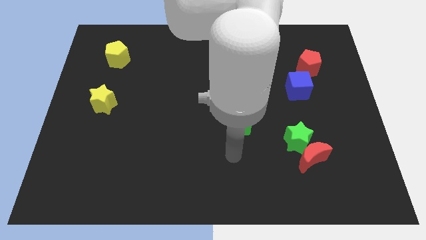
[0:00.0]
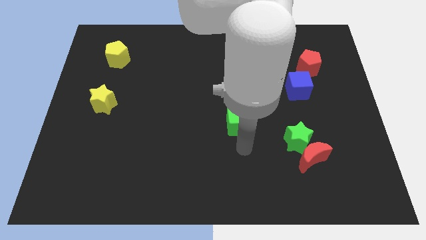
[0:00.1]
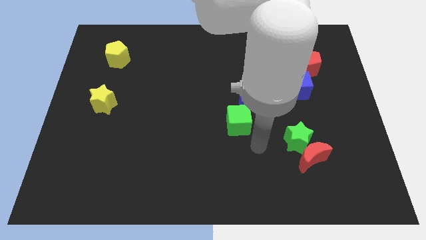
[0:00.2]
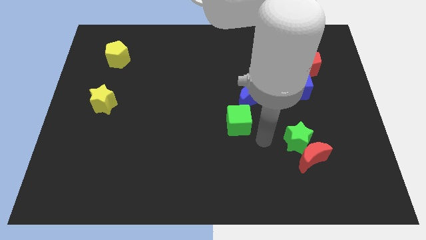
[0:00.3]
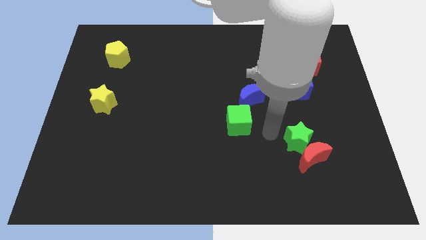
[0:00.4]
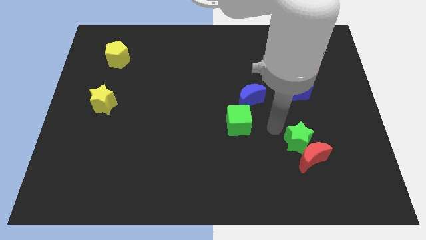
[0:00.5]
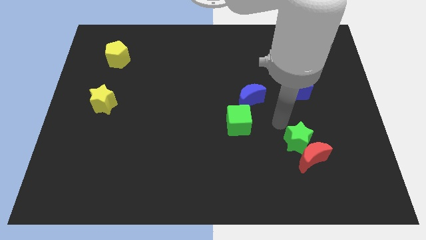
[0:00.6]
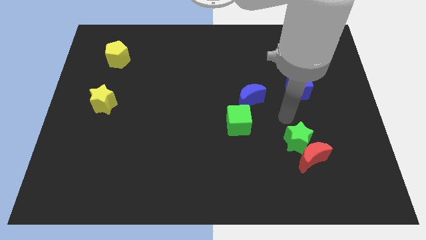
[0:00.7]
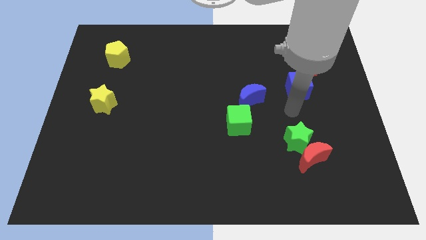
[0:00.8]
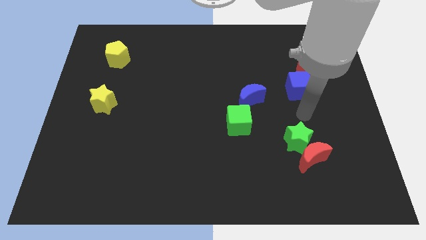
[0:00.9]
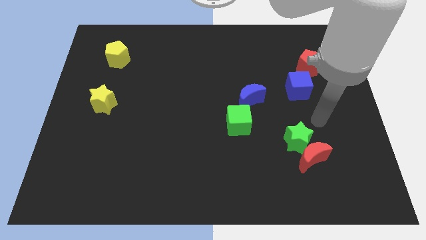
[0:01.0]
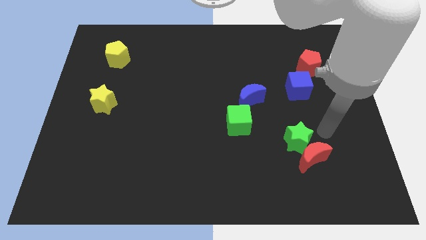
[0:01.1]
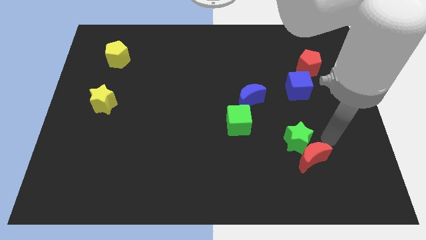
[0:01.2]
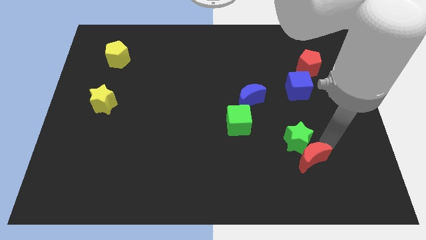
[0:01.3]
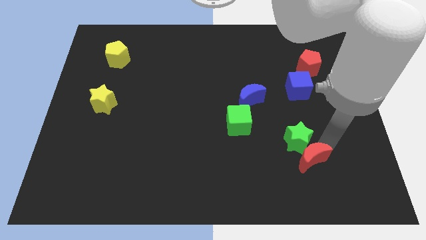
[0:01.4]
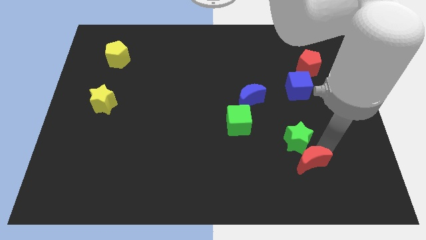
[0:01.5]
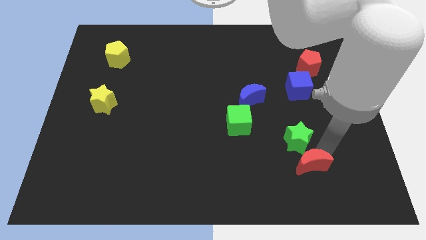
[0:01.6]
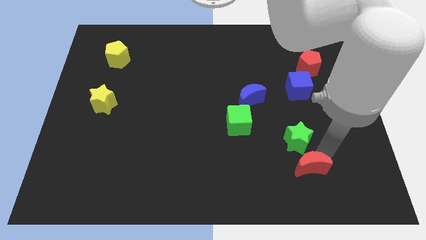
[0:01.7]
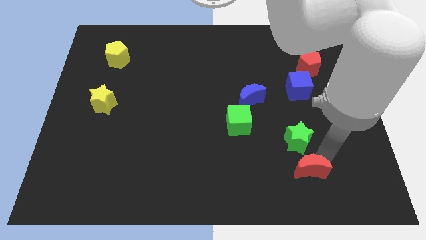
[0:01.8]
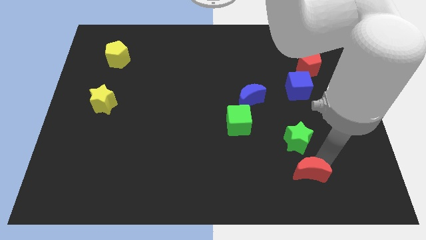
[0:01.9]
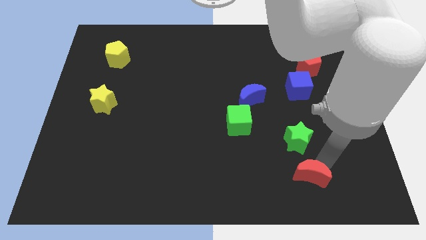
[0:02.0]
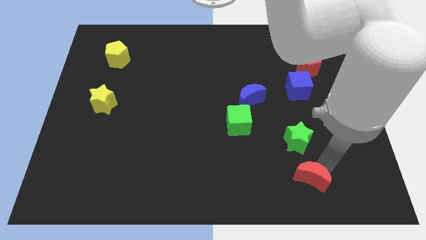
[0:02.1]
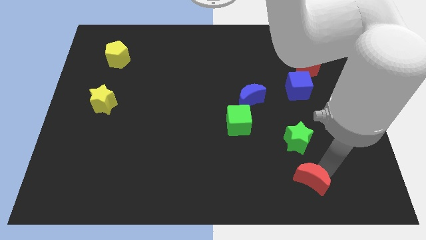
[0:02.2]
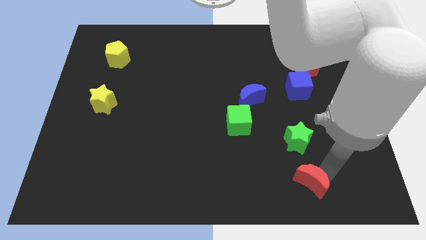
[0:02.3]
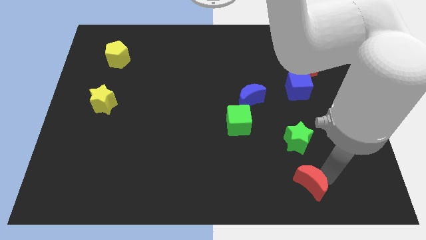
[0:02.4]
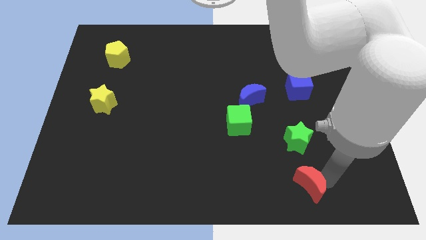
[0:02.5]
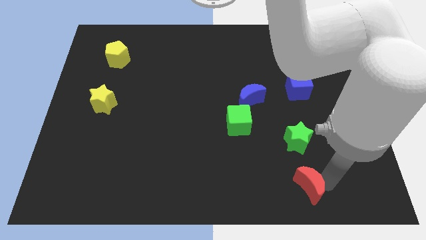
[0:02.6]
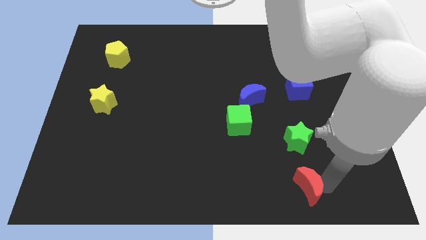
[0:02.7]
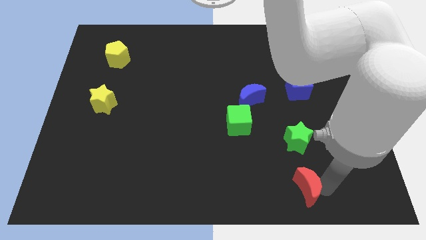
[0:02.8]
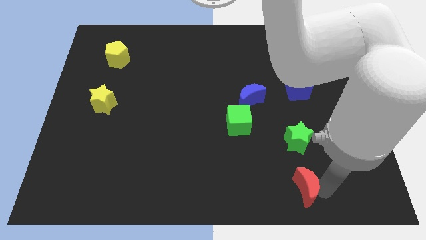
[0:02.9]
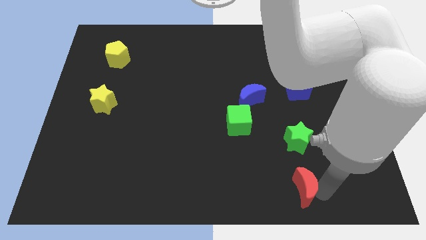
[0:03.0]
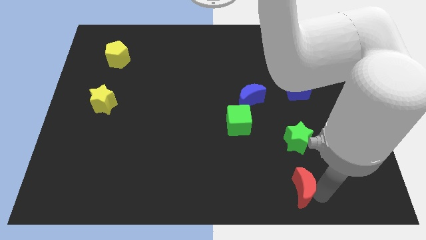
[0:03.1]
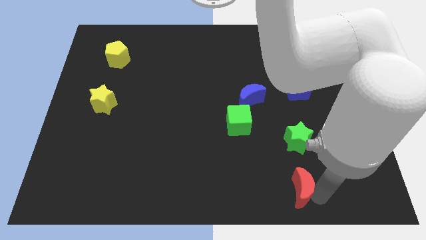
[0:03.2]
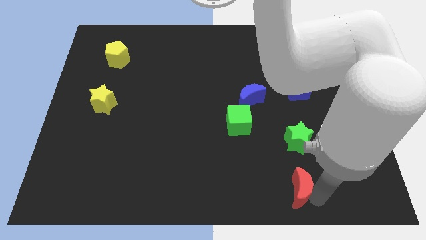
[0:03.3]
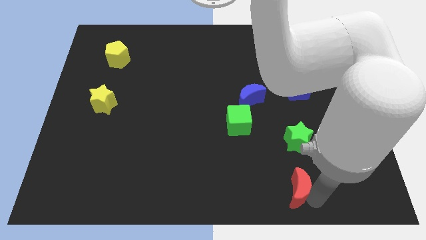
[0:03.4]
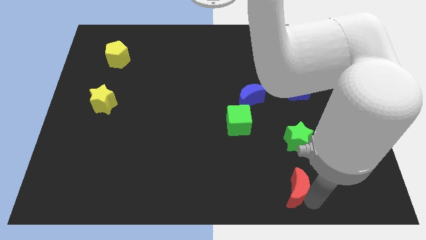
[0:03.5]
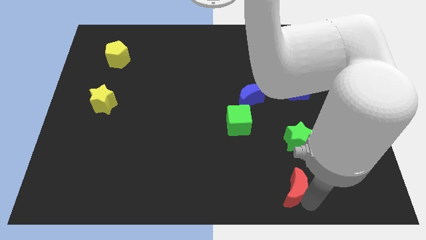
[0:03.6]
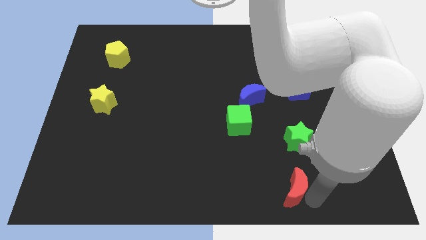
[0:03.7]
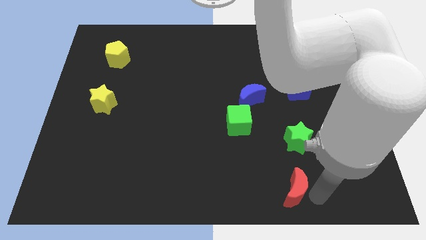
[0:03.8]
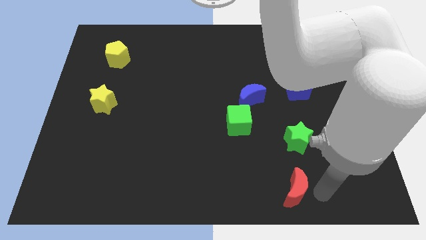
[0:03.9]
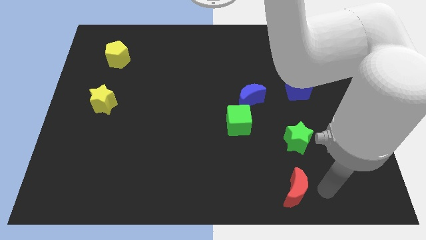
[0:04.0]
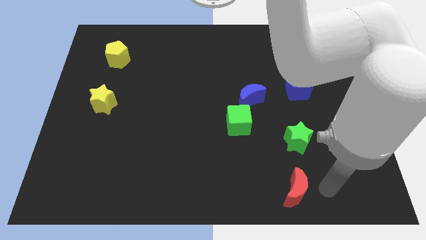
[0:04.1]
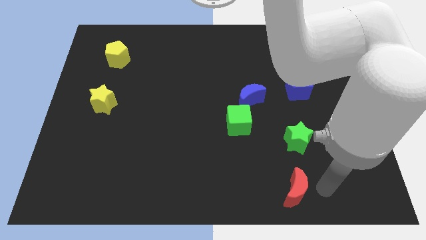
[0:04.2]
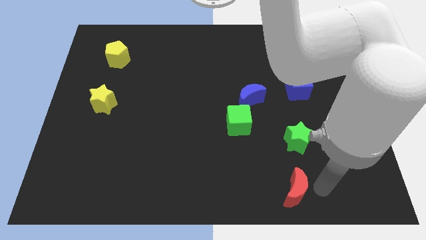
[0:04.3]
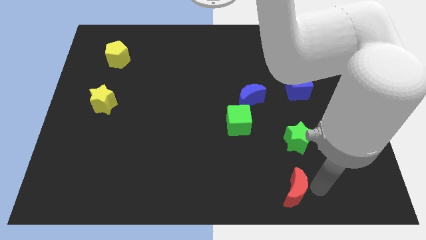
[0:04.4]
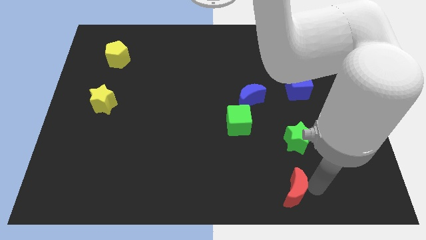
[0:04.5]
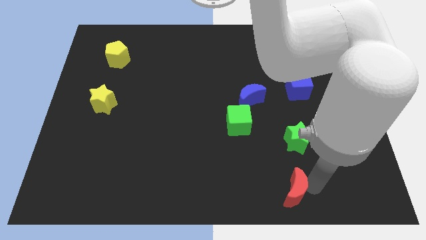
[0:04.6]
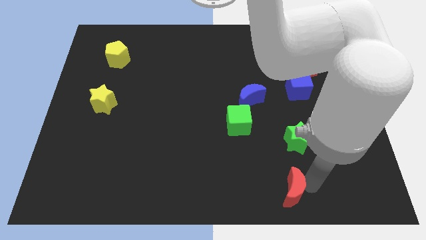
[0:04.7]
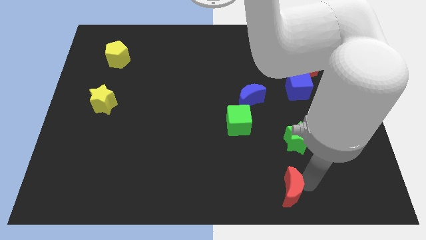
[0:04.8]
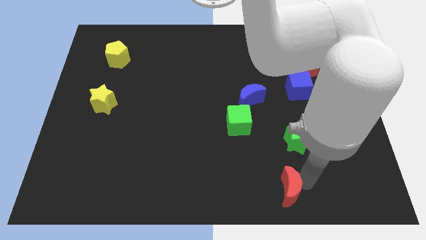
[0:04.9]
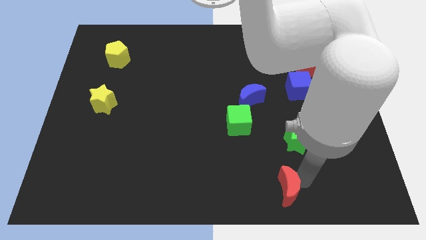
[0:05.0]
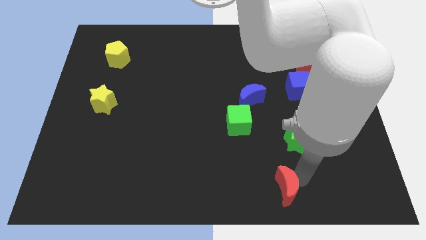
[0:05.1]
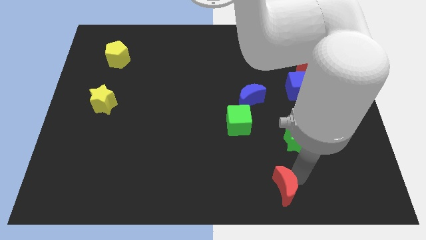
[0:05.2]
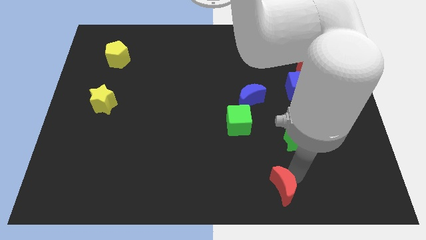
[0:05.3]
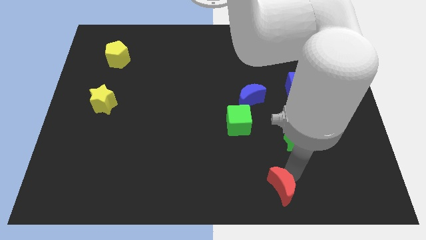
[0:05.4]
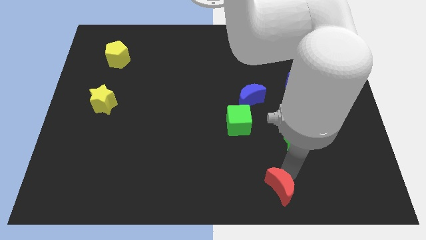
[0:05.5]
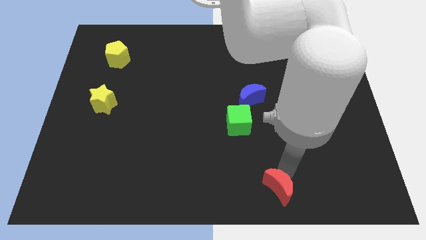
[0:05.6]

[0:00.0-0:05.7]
put the red moon to the bottom side
